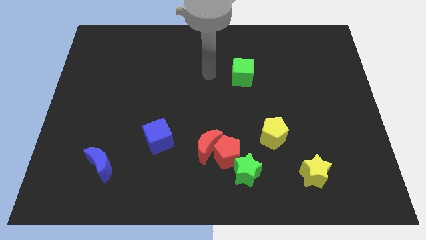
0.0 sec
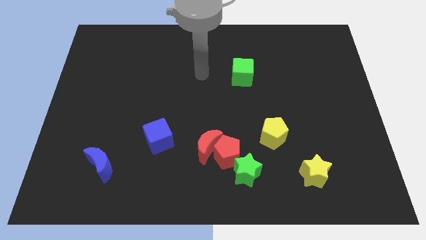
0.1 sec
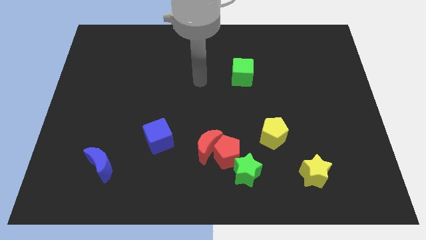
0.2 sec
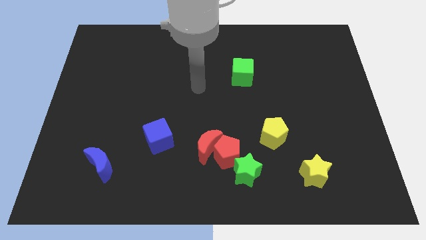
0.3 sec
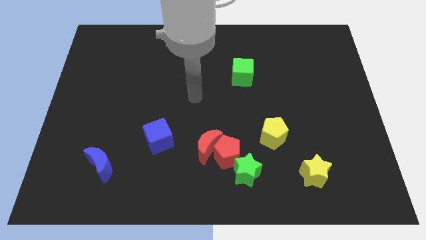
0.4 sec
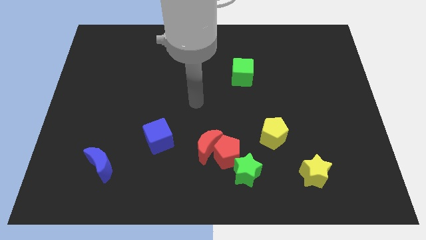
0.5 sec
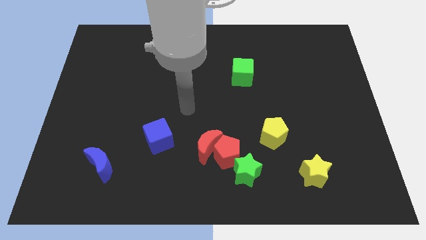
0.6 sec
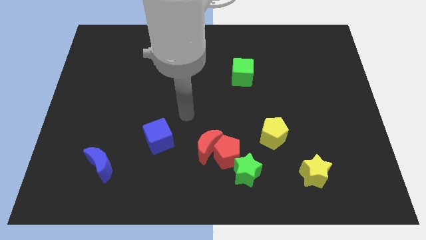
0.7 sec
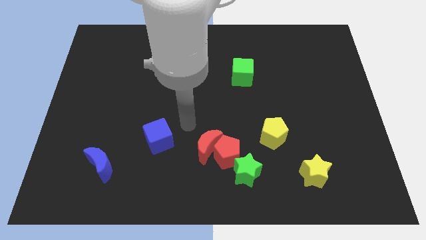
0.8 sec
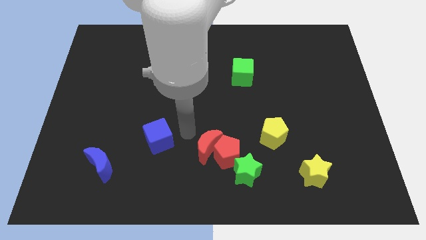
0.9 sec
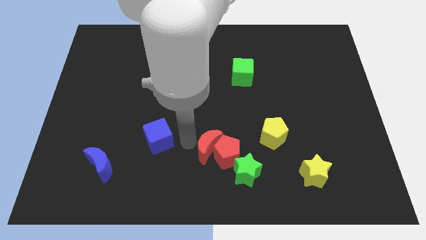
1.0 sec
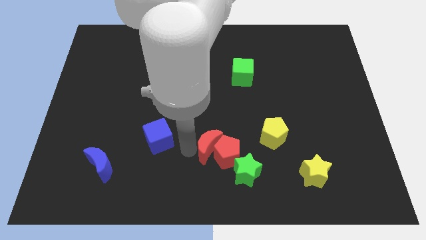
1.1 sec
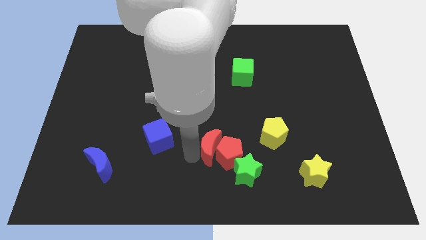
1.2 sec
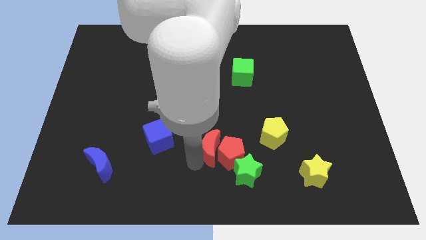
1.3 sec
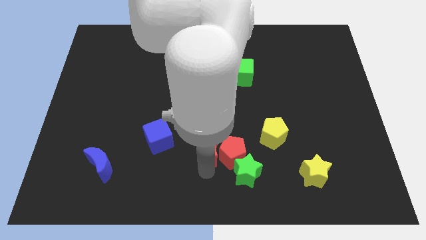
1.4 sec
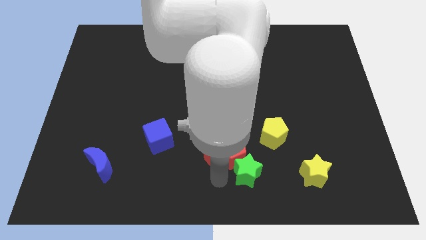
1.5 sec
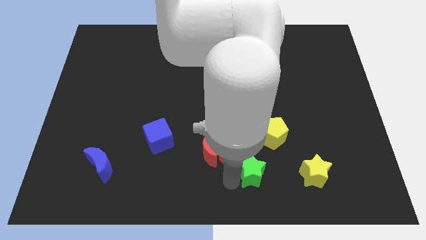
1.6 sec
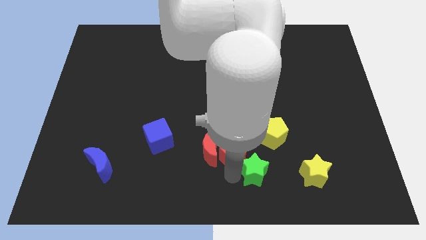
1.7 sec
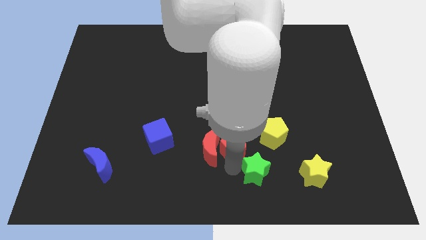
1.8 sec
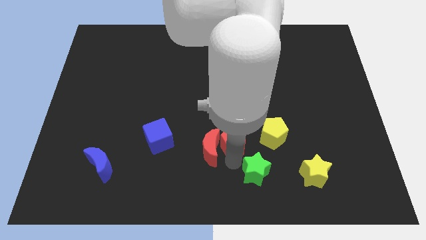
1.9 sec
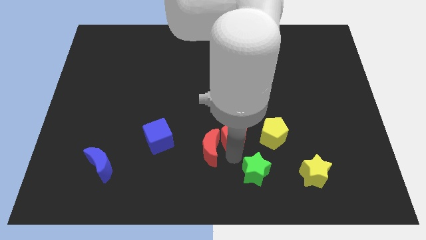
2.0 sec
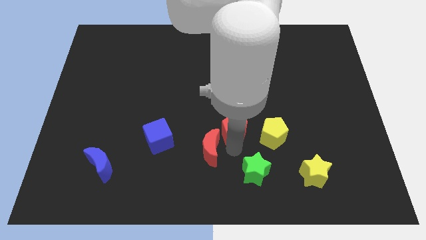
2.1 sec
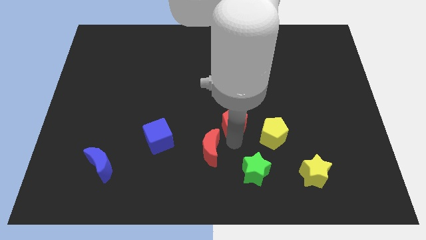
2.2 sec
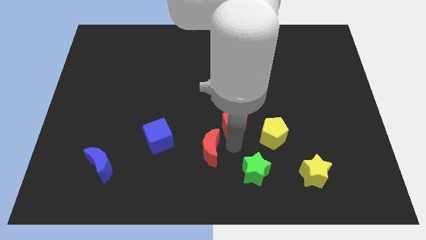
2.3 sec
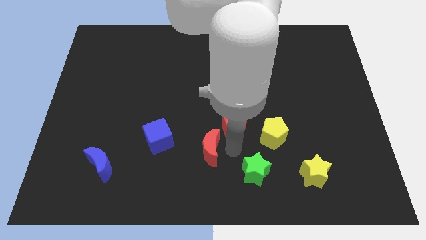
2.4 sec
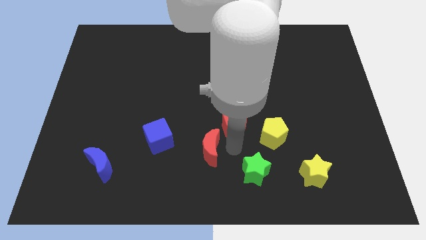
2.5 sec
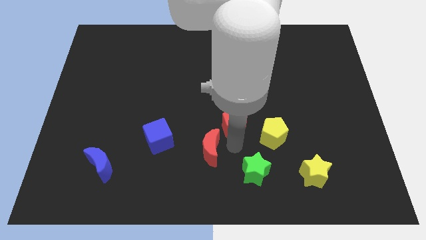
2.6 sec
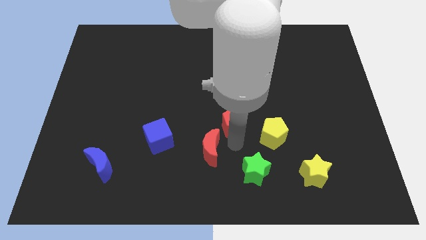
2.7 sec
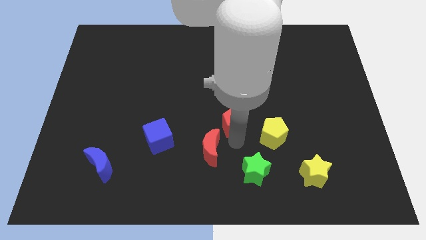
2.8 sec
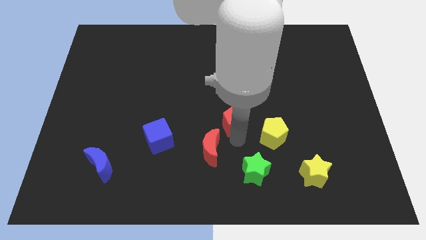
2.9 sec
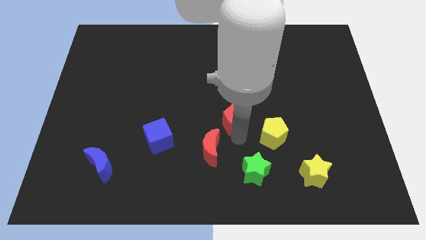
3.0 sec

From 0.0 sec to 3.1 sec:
move the red pentagon away from the red moon and green star

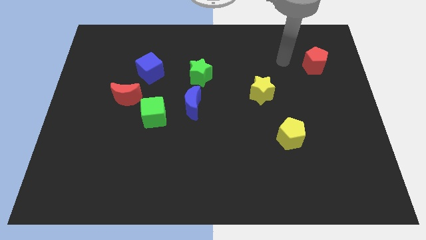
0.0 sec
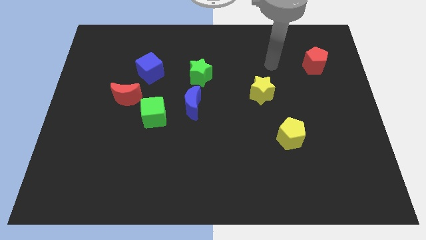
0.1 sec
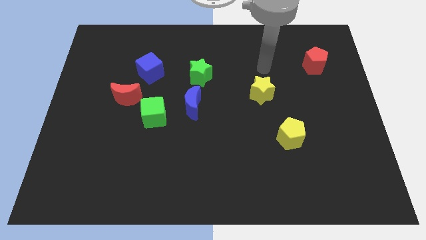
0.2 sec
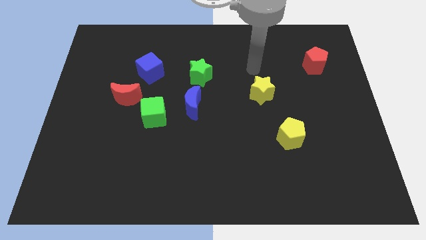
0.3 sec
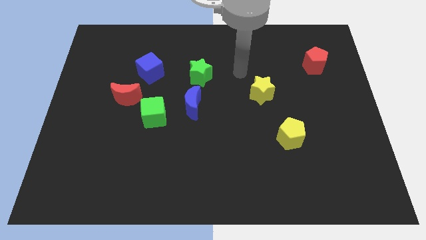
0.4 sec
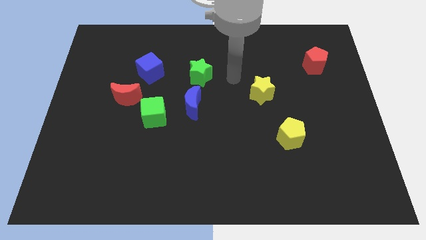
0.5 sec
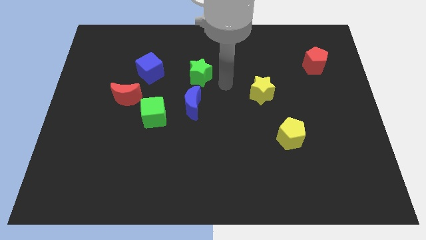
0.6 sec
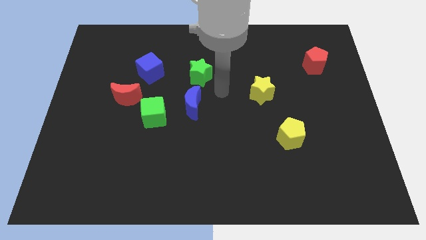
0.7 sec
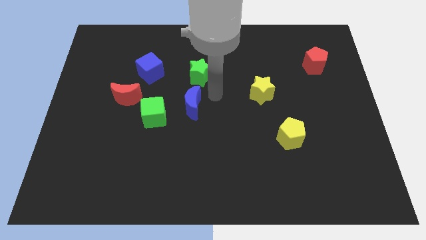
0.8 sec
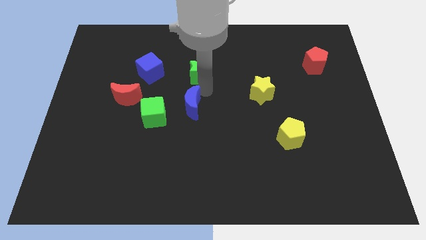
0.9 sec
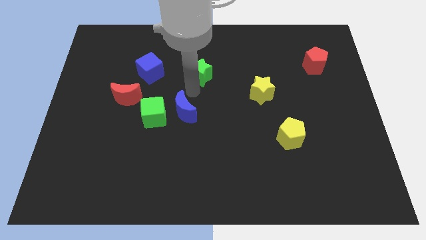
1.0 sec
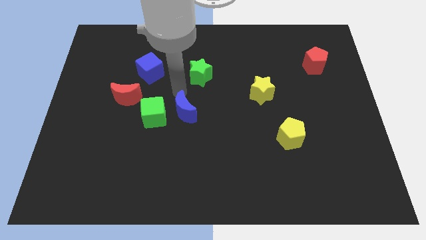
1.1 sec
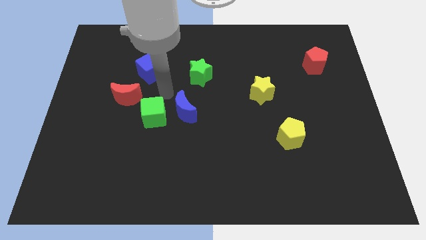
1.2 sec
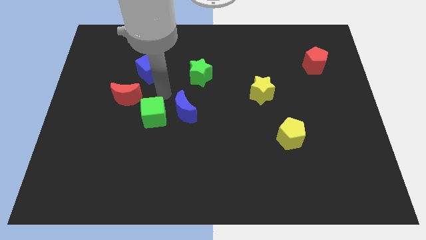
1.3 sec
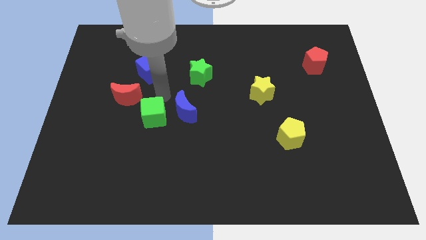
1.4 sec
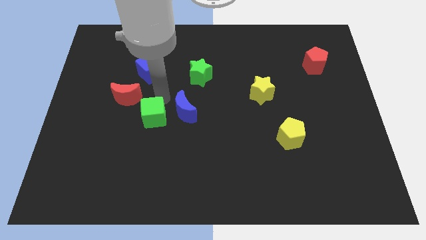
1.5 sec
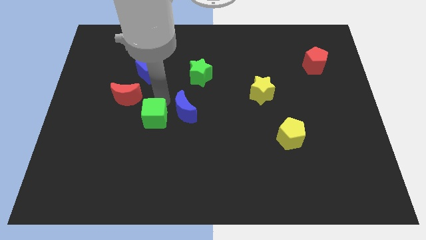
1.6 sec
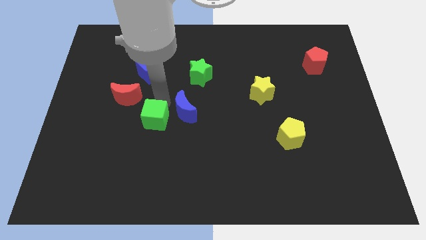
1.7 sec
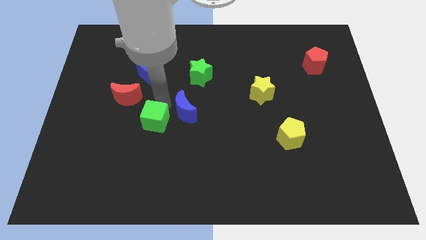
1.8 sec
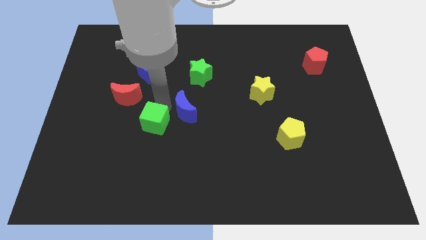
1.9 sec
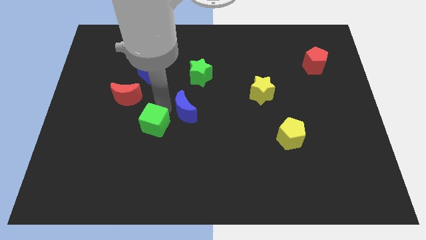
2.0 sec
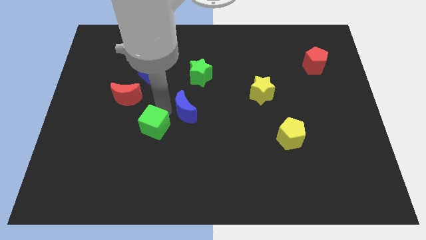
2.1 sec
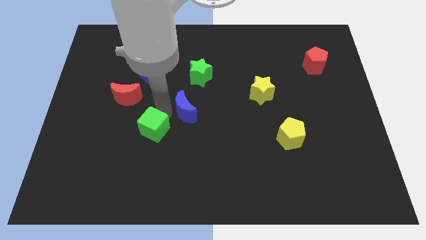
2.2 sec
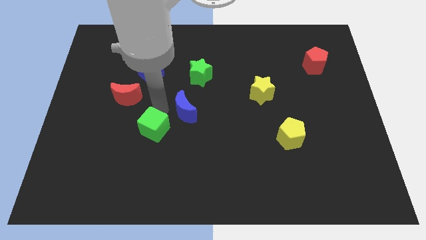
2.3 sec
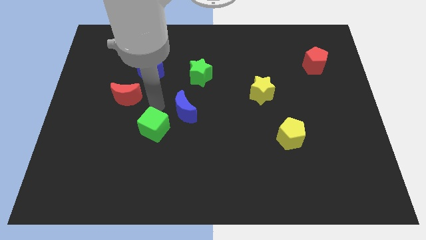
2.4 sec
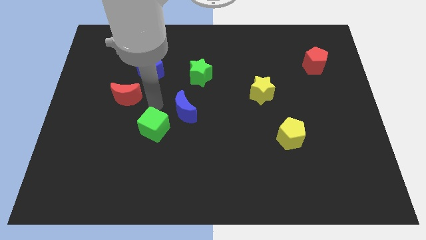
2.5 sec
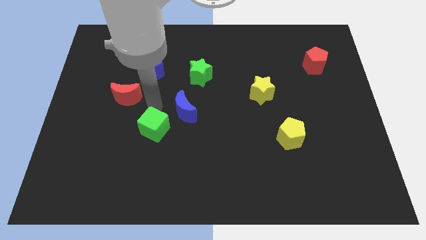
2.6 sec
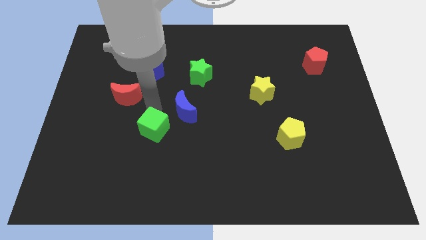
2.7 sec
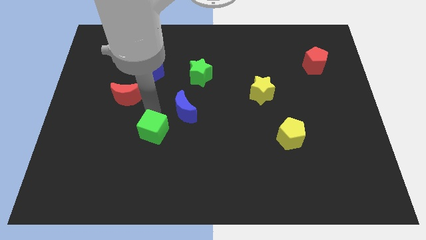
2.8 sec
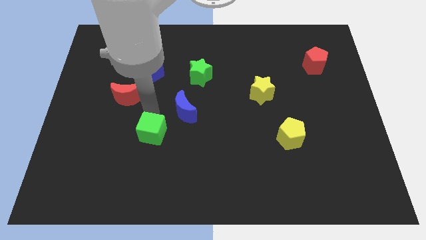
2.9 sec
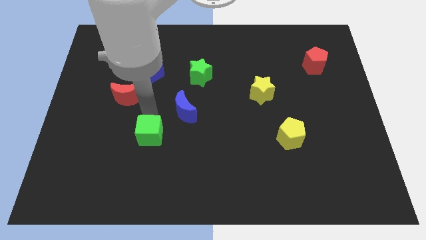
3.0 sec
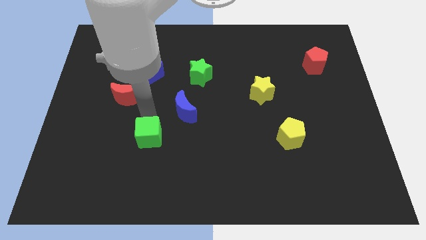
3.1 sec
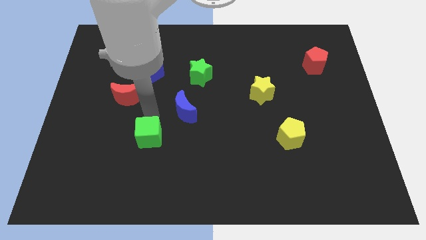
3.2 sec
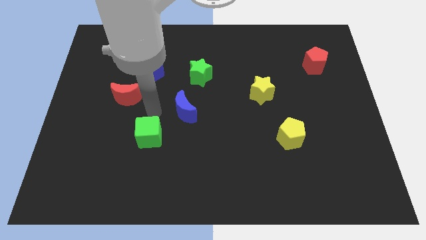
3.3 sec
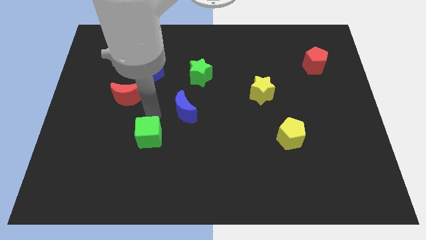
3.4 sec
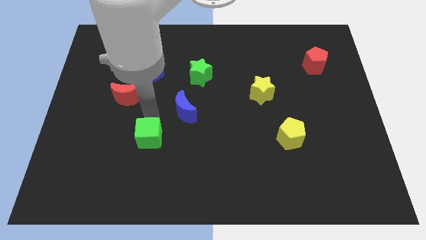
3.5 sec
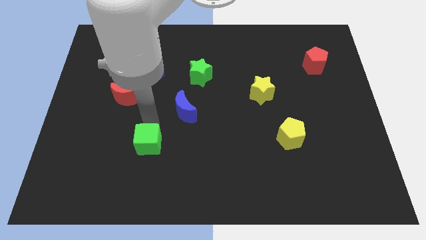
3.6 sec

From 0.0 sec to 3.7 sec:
pull the green cube apart from the red moon and blue moon

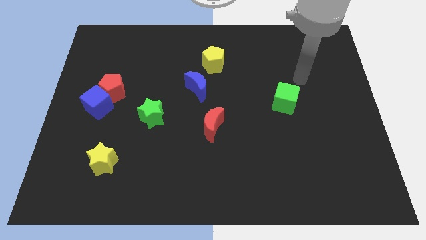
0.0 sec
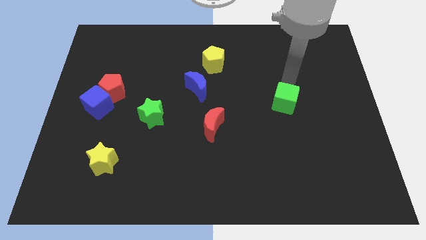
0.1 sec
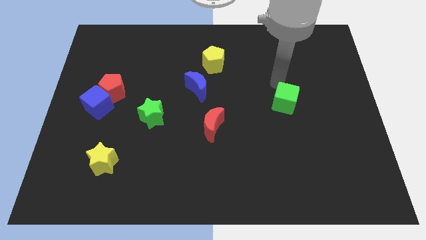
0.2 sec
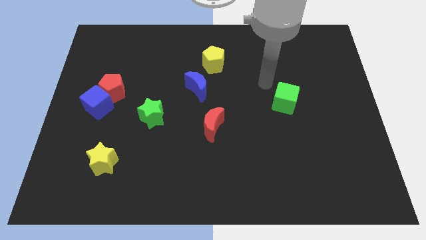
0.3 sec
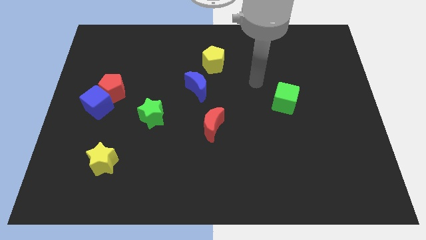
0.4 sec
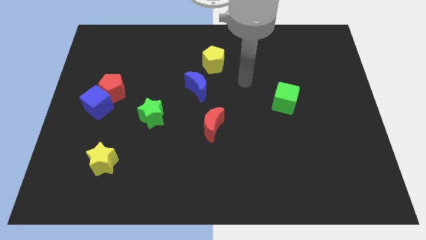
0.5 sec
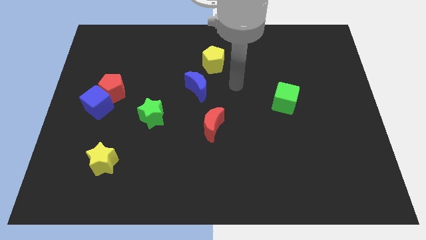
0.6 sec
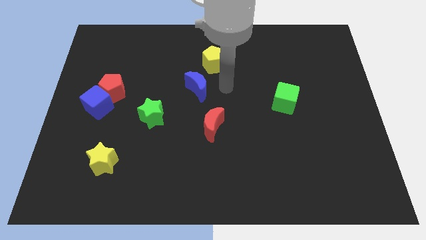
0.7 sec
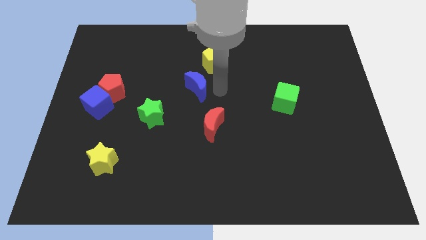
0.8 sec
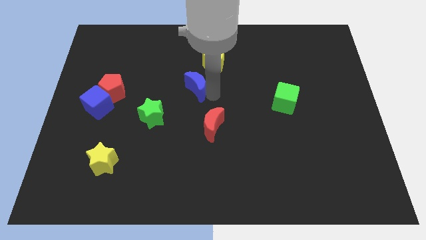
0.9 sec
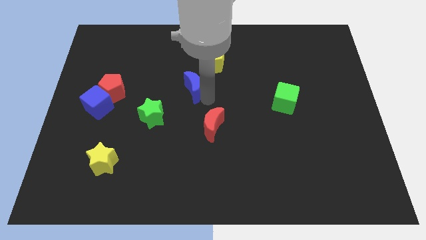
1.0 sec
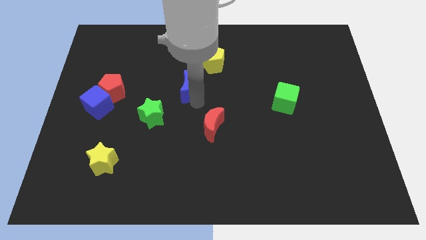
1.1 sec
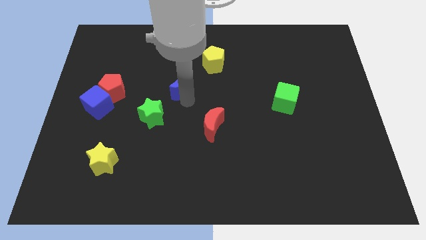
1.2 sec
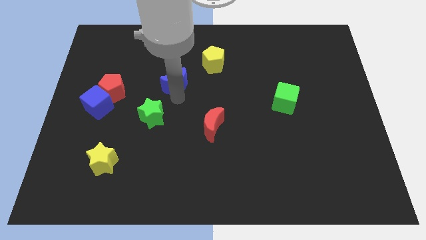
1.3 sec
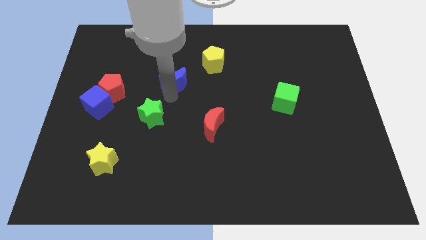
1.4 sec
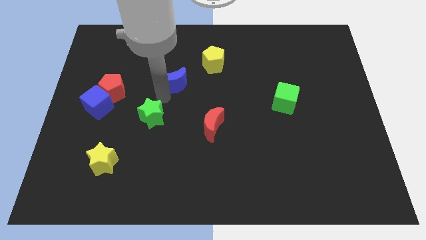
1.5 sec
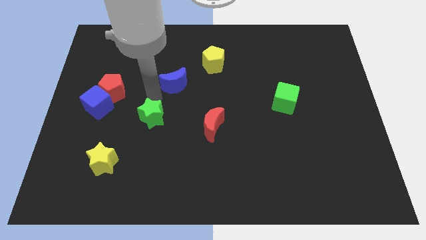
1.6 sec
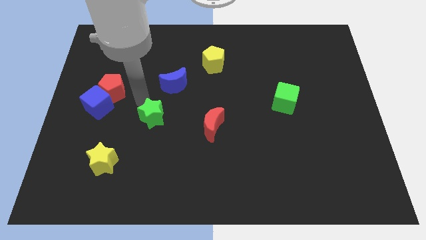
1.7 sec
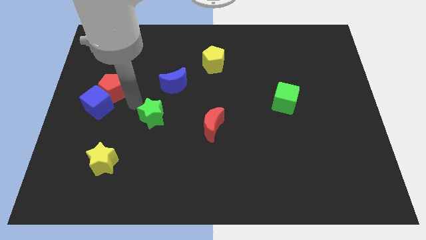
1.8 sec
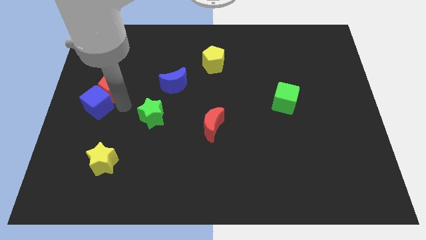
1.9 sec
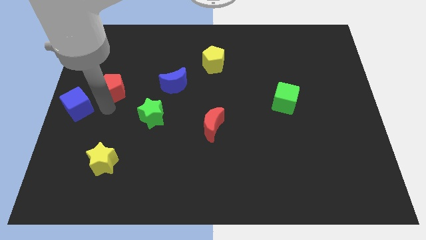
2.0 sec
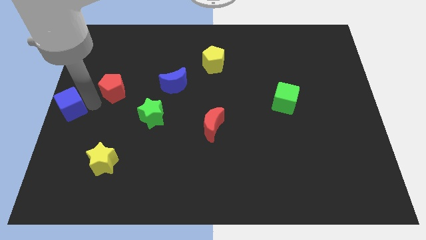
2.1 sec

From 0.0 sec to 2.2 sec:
move the red pentagon away from the blue cube

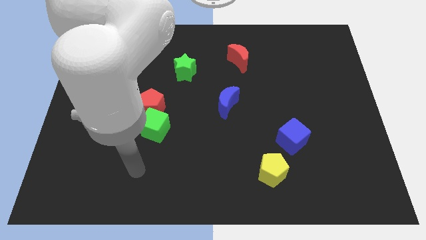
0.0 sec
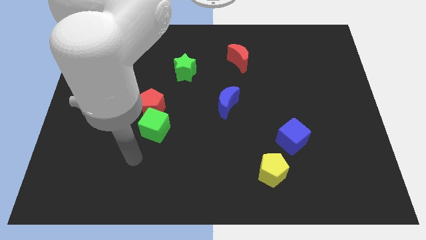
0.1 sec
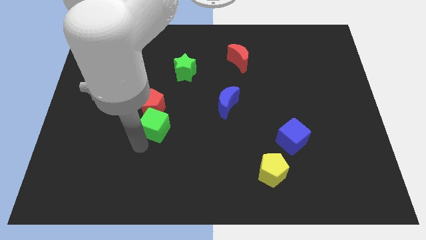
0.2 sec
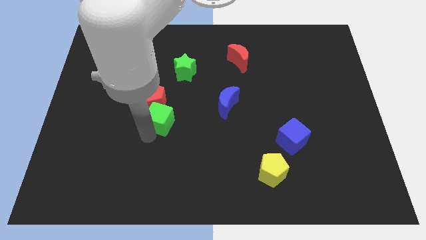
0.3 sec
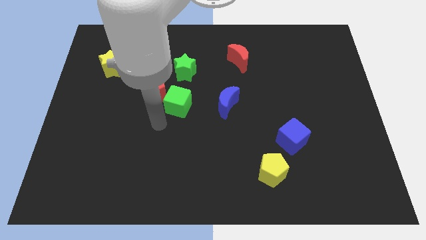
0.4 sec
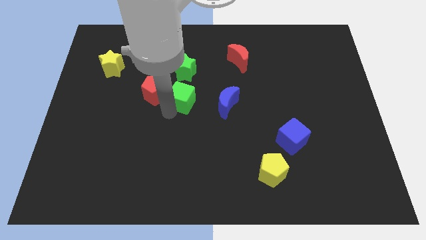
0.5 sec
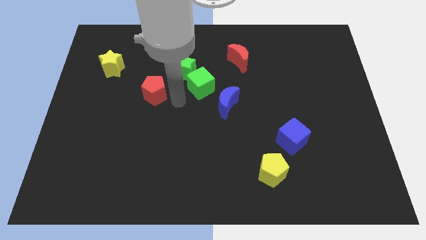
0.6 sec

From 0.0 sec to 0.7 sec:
separate the red pentagon from the green cube
